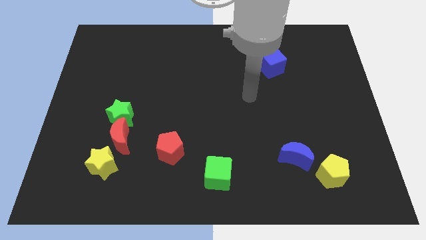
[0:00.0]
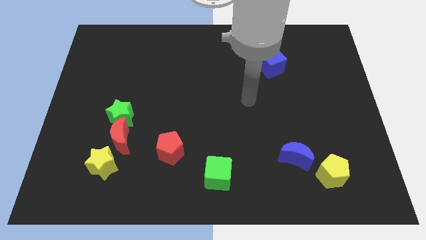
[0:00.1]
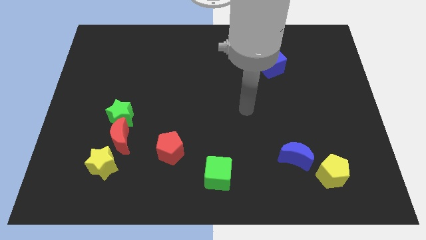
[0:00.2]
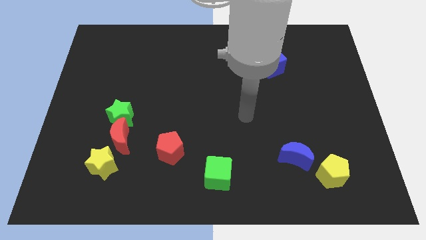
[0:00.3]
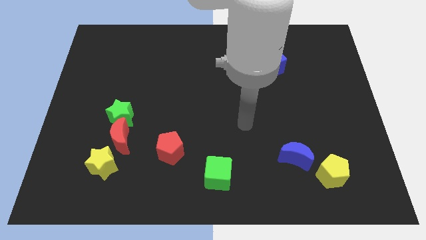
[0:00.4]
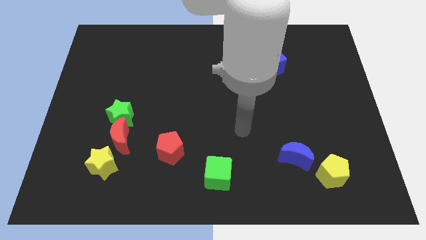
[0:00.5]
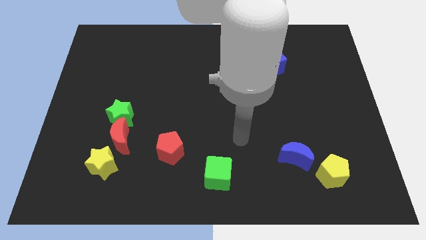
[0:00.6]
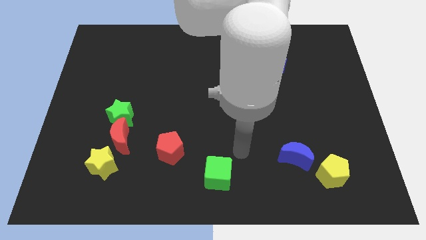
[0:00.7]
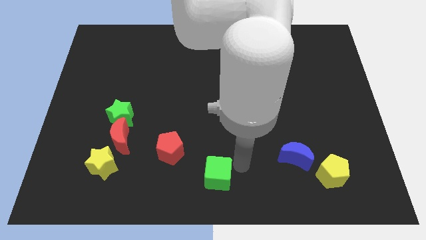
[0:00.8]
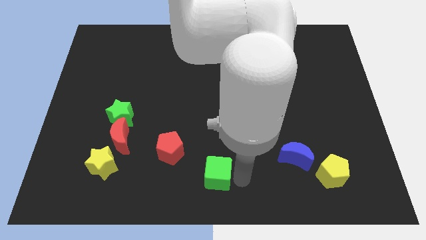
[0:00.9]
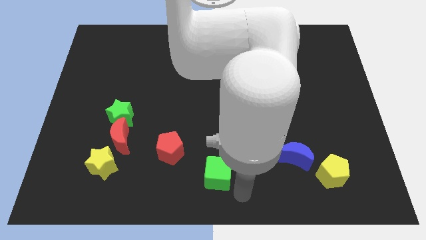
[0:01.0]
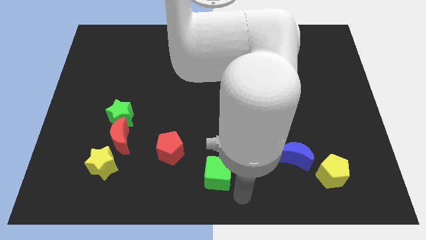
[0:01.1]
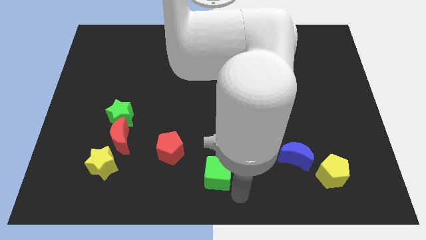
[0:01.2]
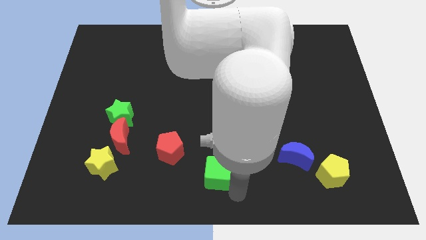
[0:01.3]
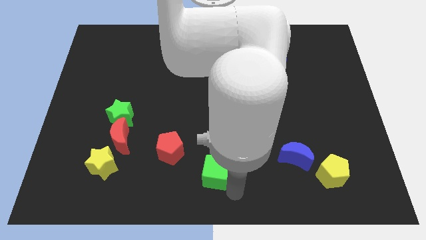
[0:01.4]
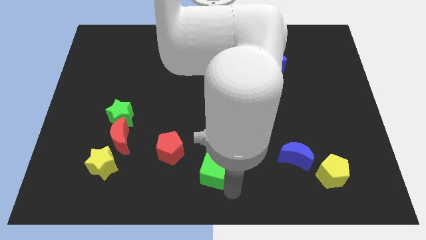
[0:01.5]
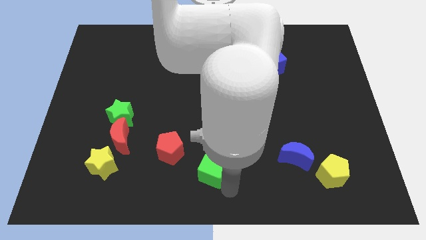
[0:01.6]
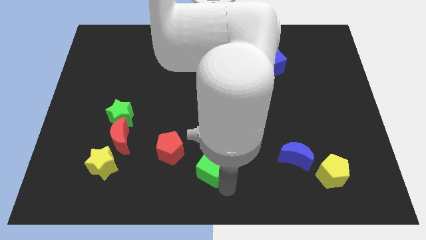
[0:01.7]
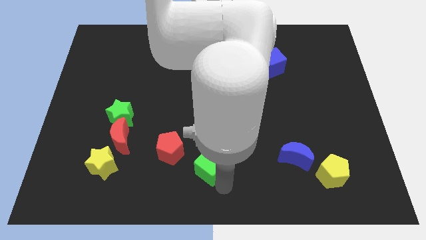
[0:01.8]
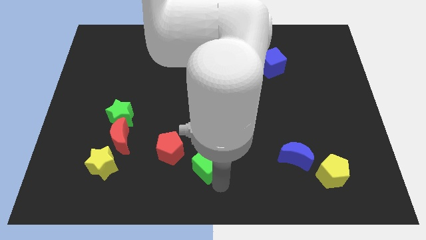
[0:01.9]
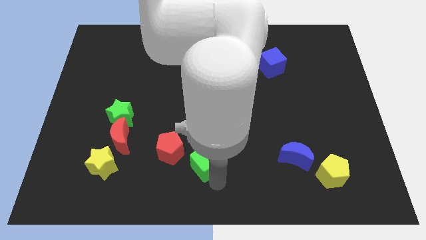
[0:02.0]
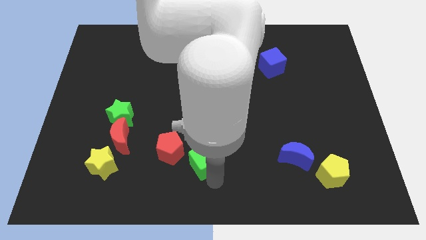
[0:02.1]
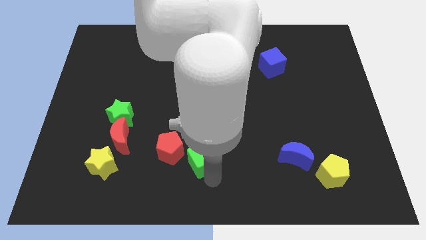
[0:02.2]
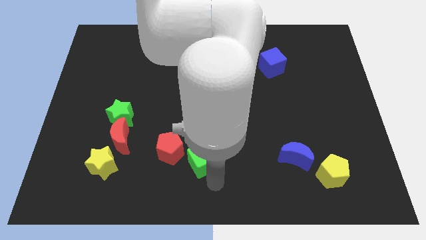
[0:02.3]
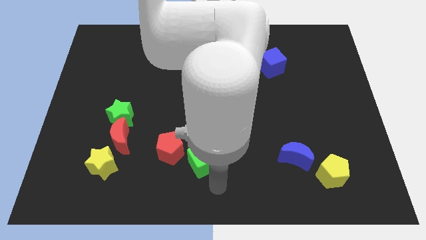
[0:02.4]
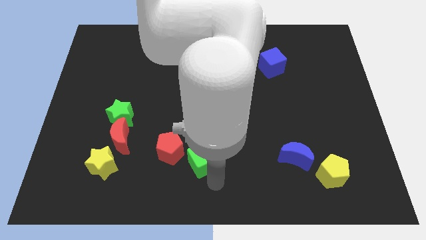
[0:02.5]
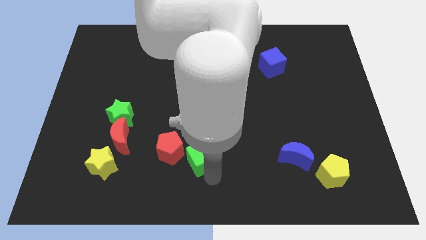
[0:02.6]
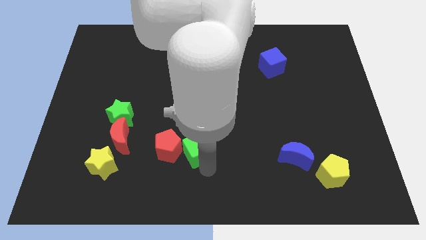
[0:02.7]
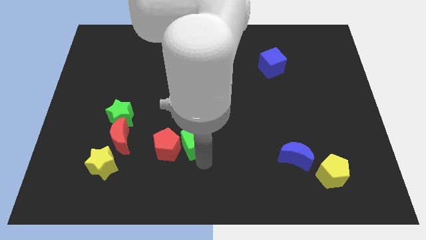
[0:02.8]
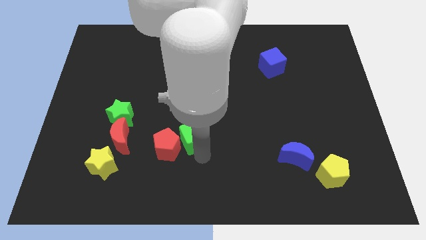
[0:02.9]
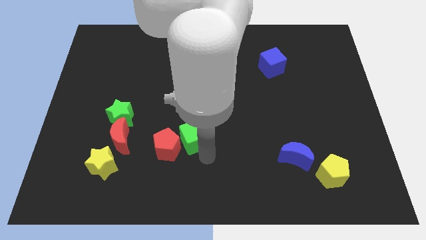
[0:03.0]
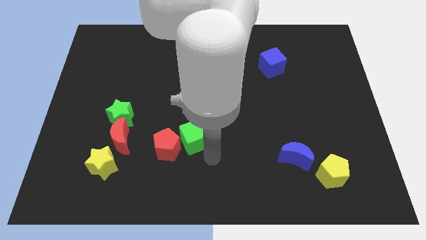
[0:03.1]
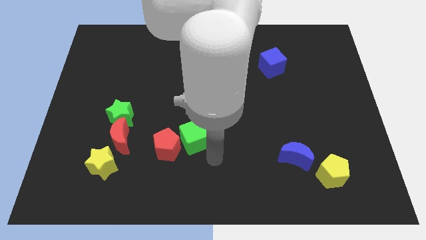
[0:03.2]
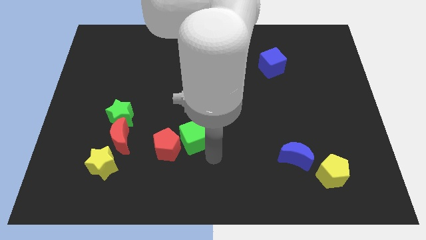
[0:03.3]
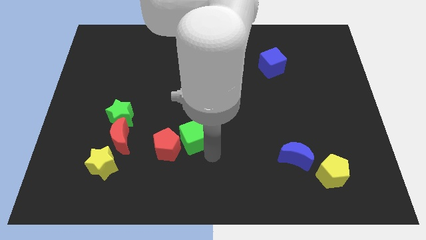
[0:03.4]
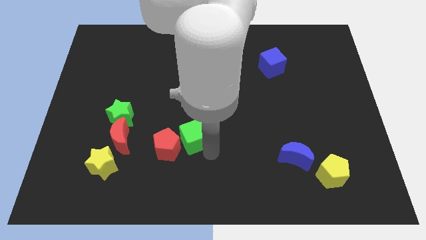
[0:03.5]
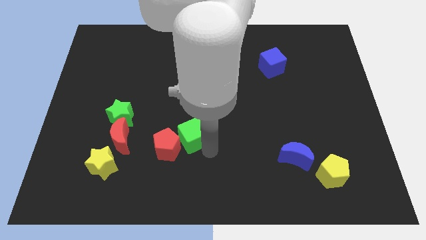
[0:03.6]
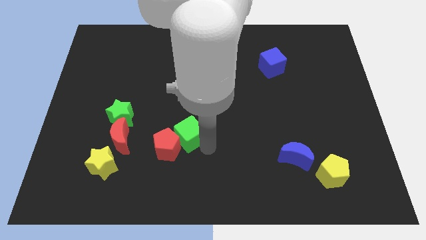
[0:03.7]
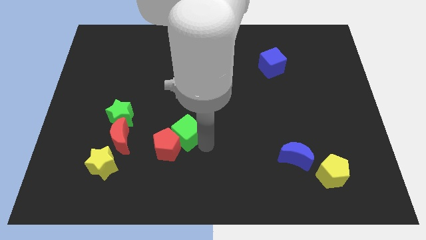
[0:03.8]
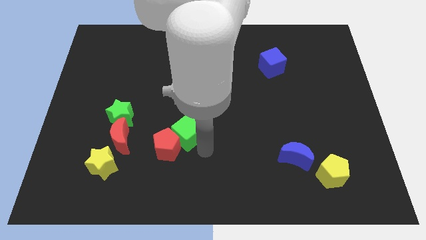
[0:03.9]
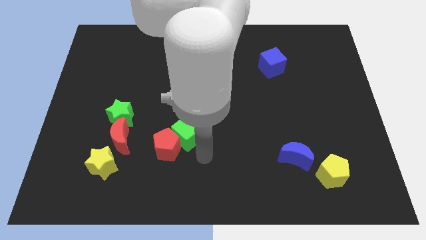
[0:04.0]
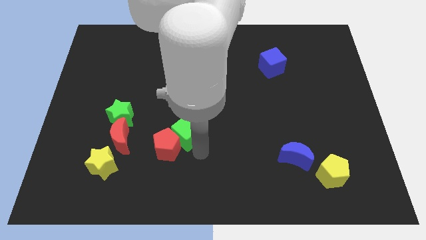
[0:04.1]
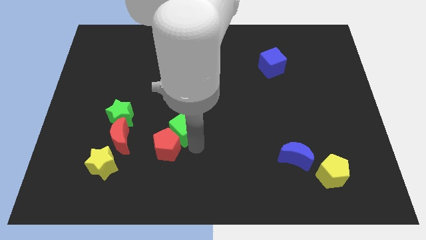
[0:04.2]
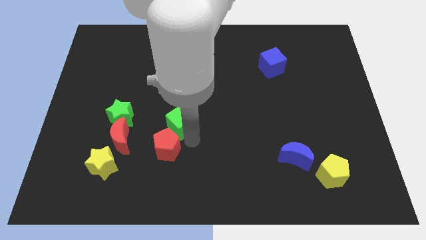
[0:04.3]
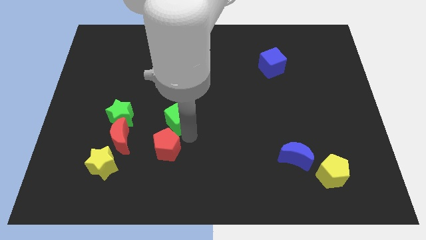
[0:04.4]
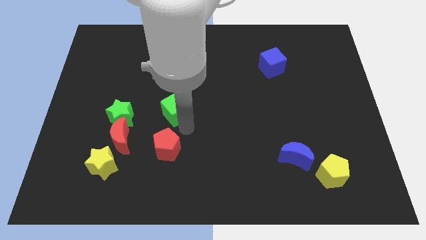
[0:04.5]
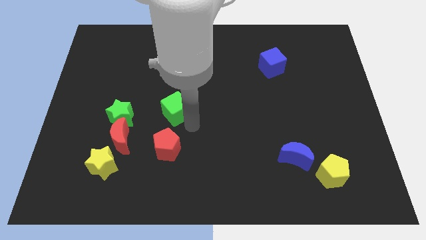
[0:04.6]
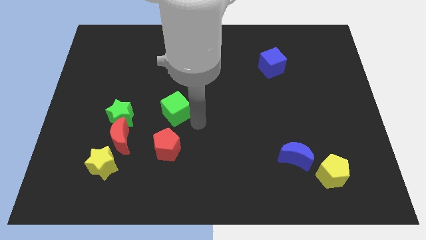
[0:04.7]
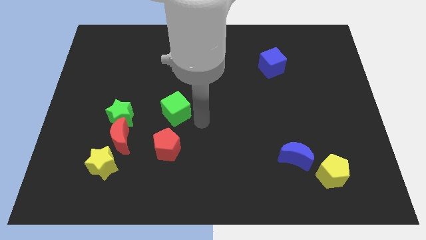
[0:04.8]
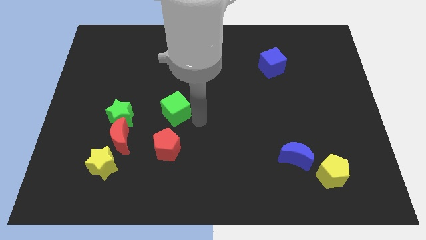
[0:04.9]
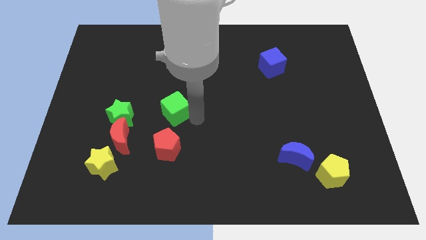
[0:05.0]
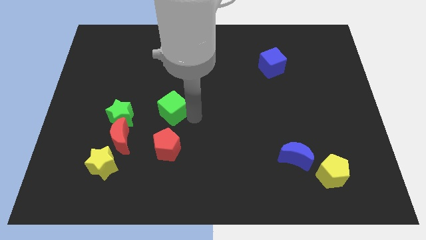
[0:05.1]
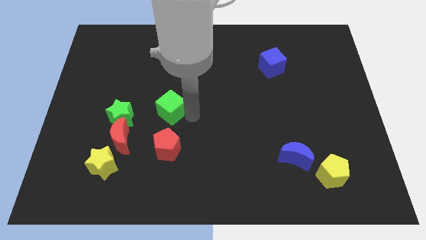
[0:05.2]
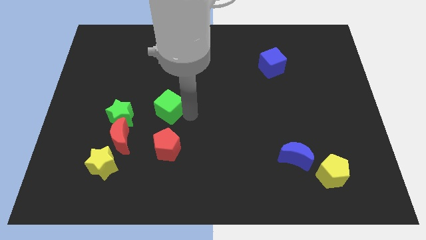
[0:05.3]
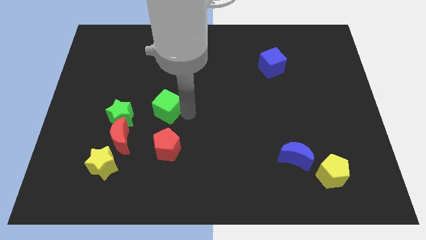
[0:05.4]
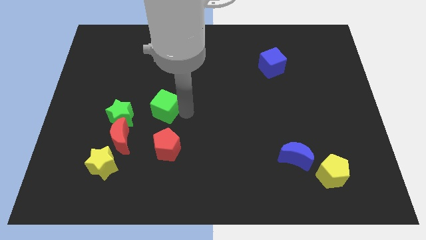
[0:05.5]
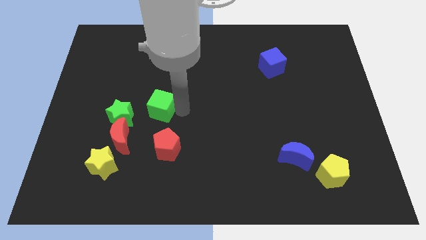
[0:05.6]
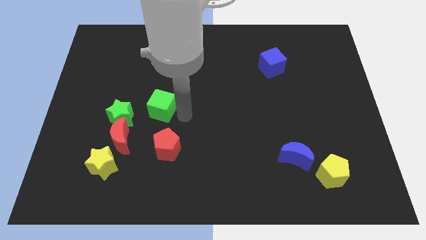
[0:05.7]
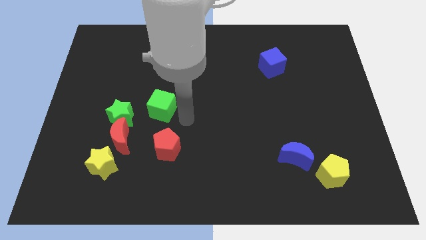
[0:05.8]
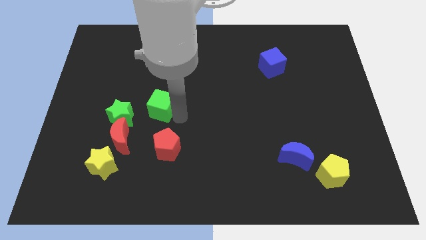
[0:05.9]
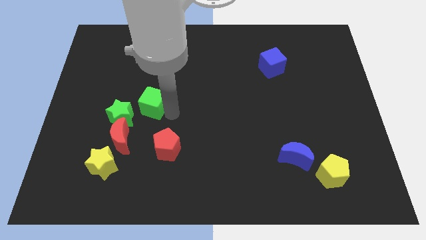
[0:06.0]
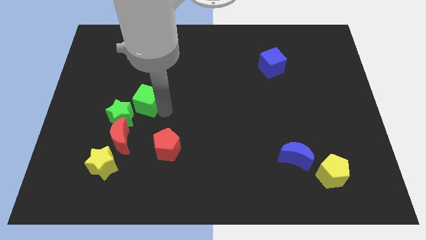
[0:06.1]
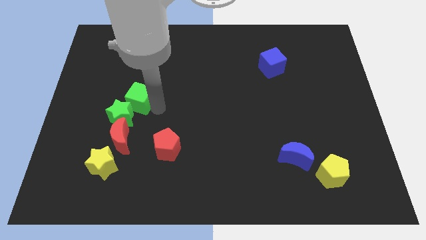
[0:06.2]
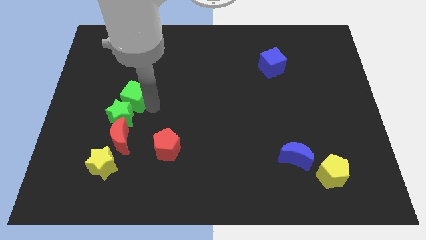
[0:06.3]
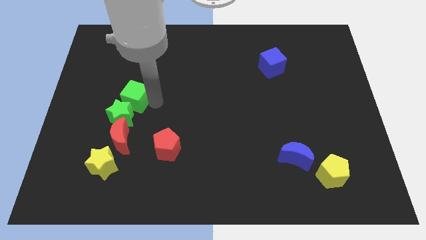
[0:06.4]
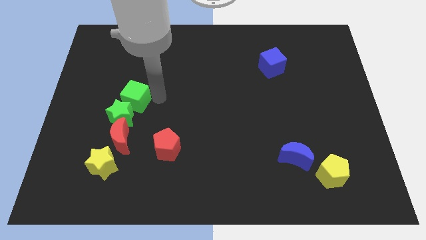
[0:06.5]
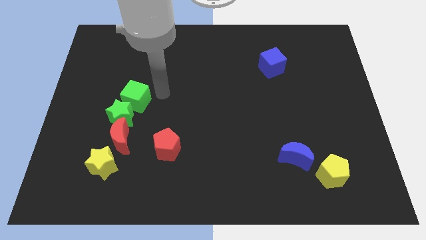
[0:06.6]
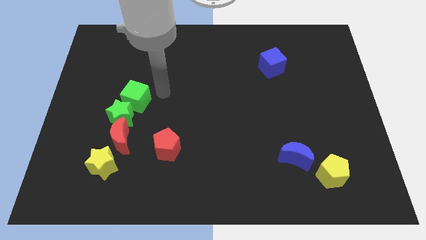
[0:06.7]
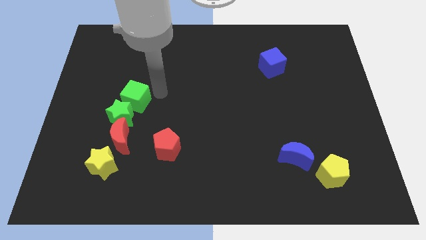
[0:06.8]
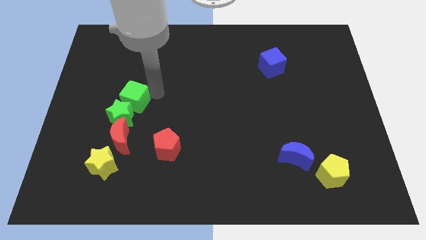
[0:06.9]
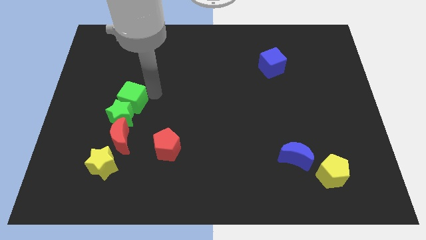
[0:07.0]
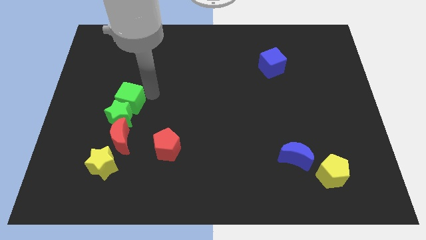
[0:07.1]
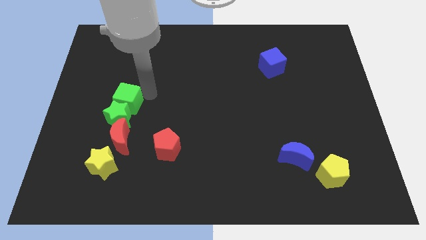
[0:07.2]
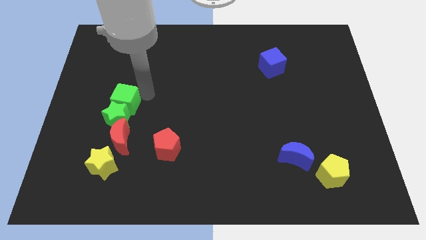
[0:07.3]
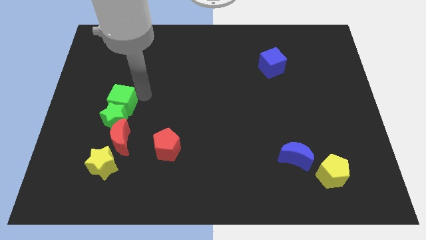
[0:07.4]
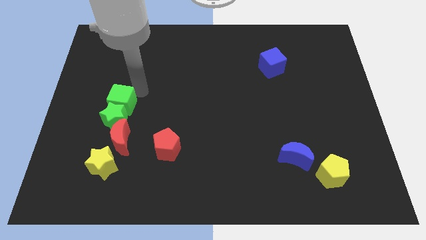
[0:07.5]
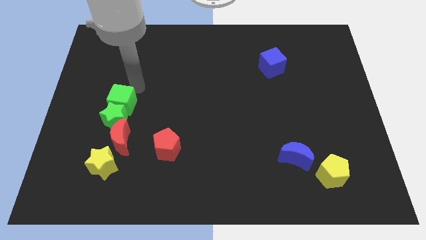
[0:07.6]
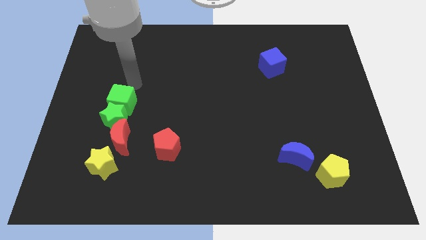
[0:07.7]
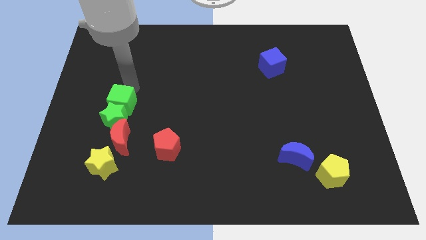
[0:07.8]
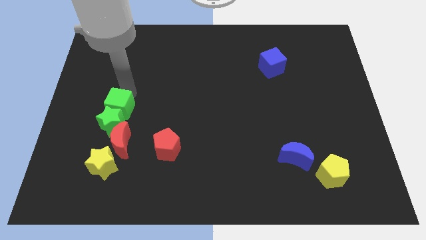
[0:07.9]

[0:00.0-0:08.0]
slide the green cube above the yellow star
